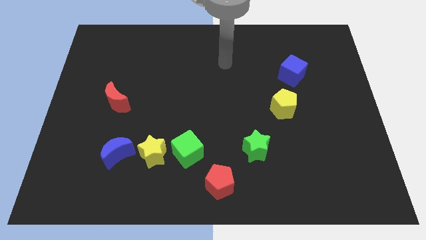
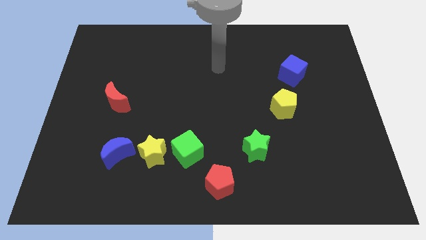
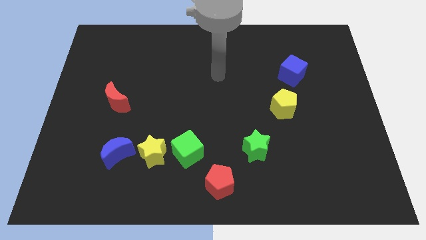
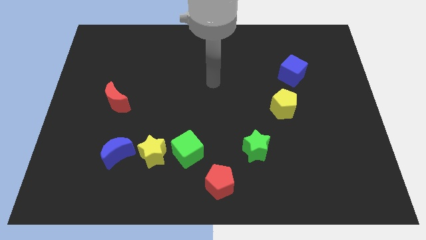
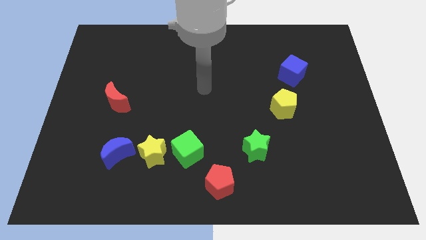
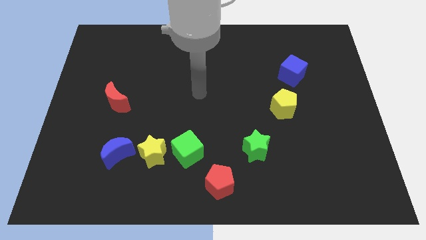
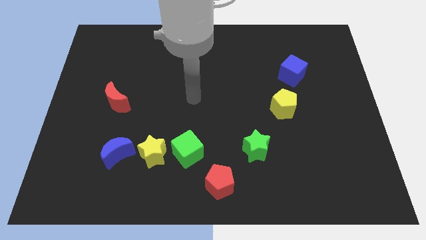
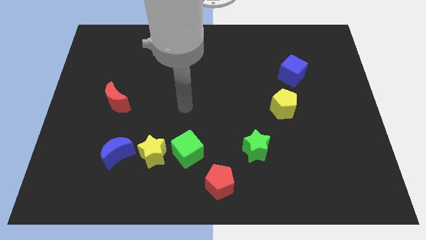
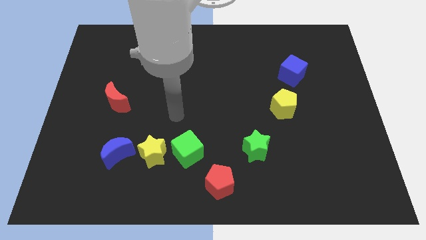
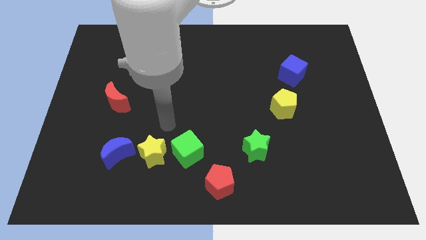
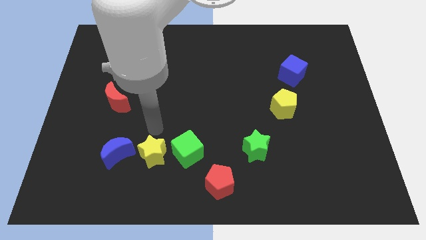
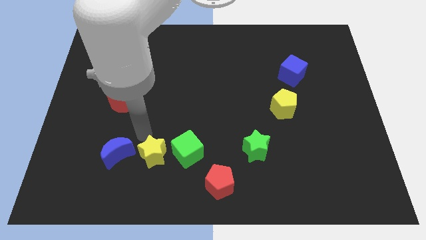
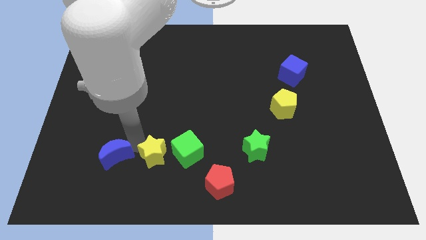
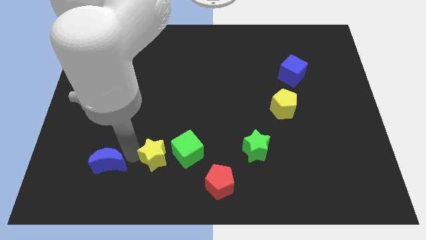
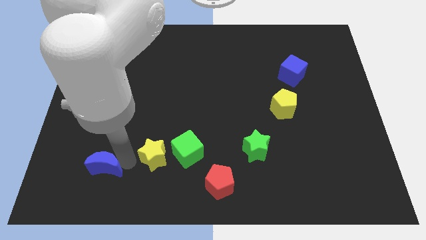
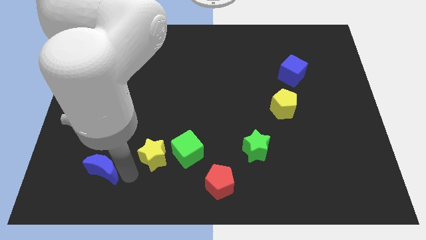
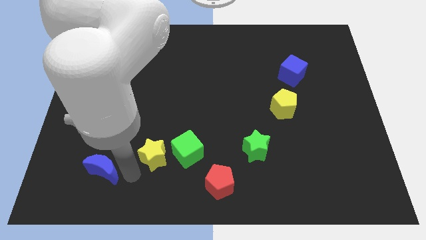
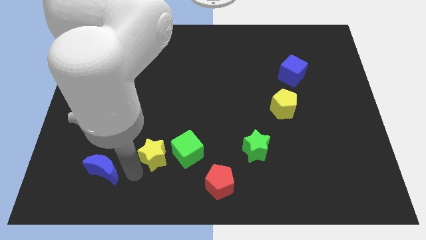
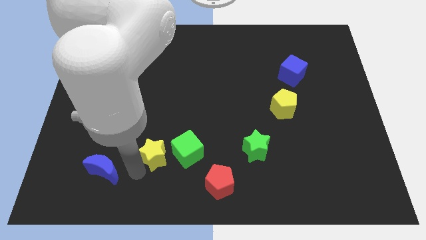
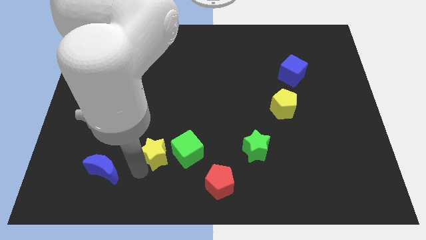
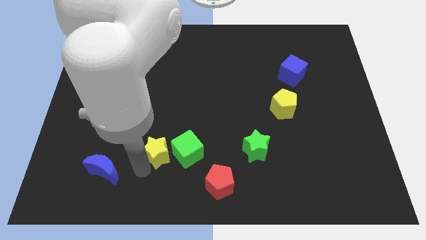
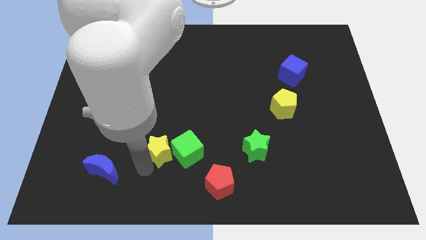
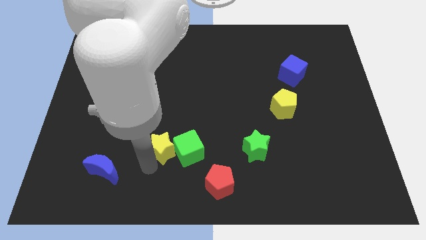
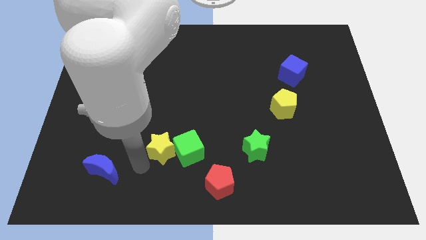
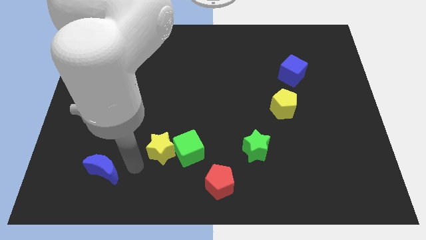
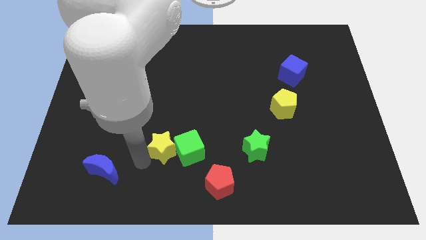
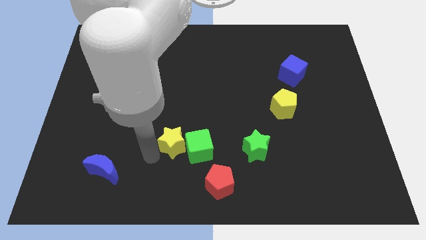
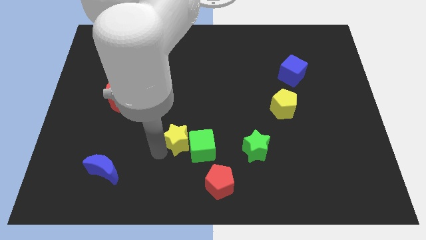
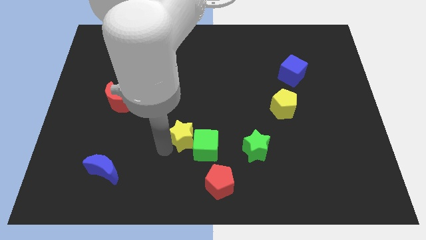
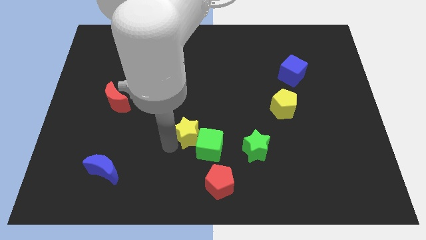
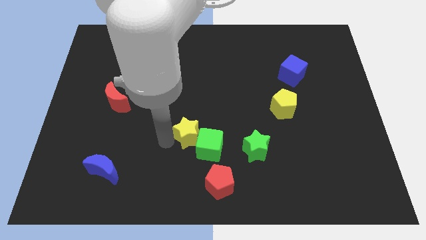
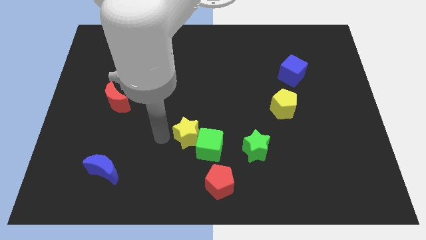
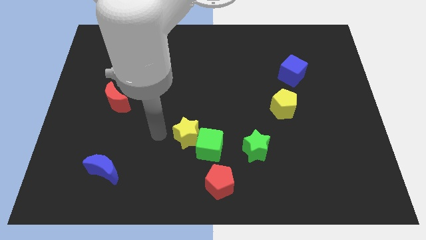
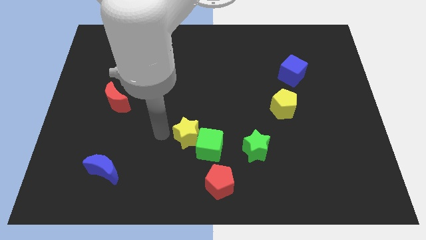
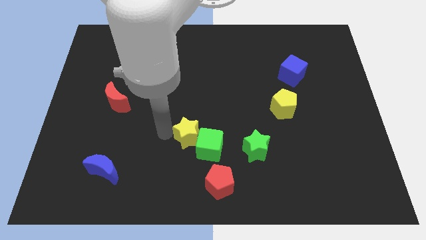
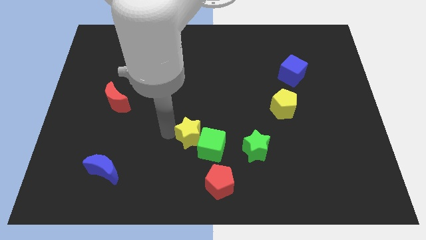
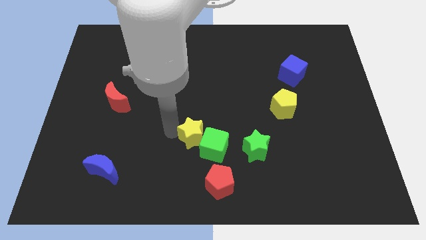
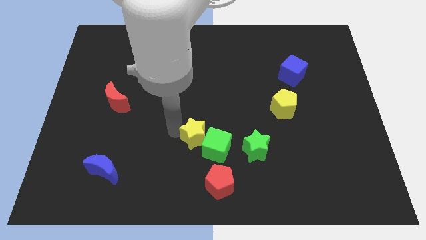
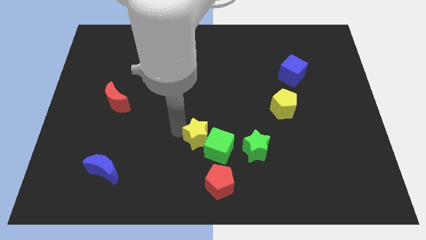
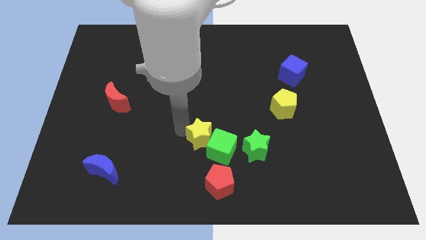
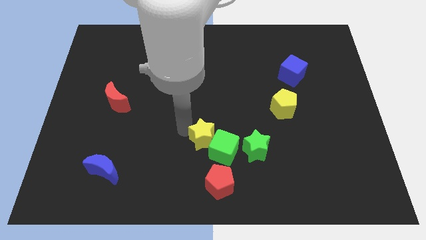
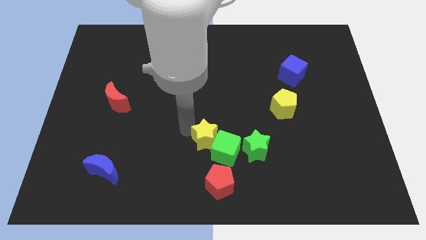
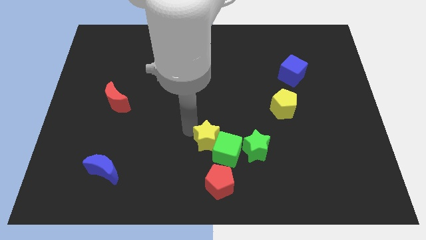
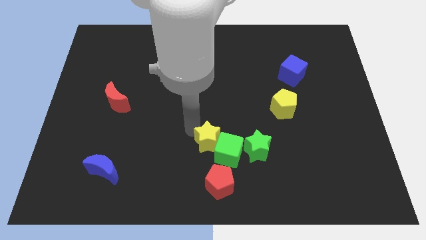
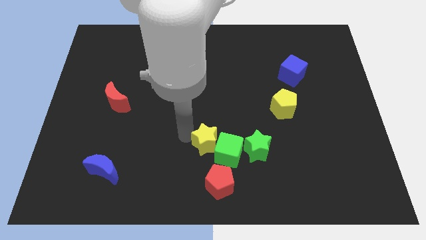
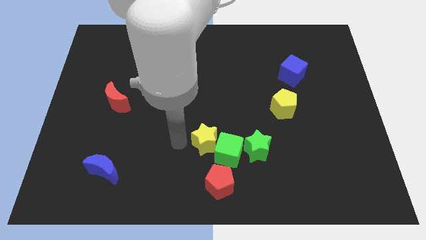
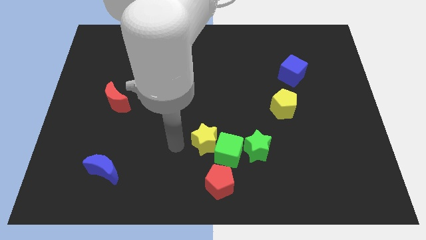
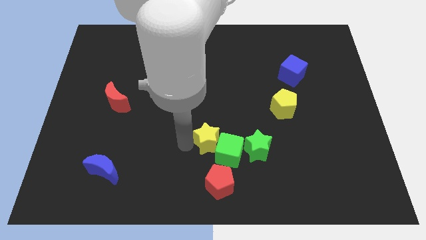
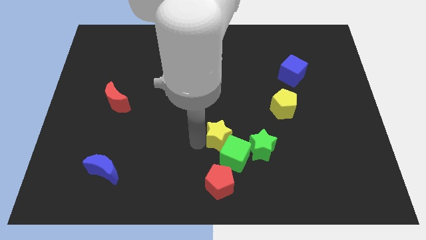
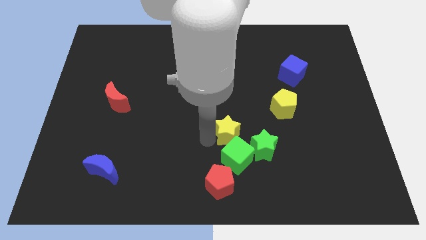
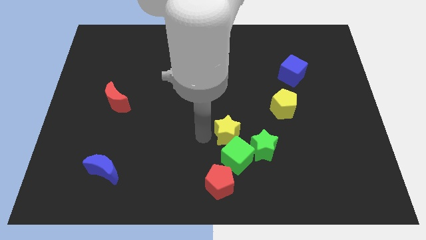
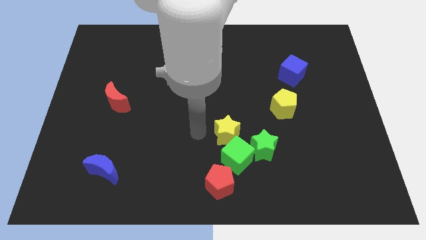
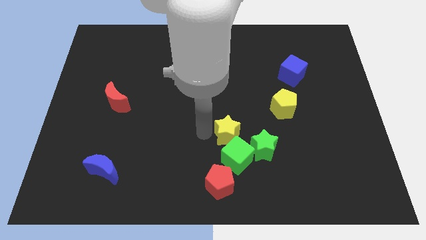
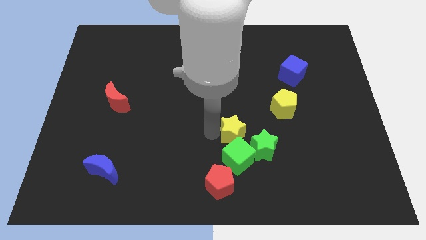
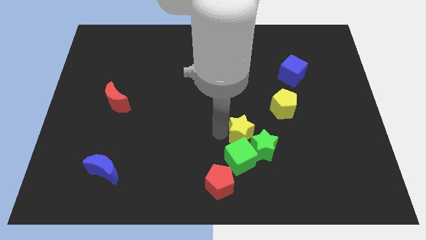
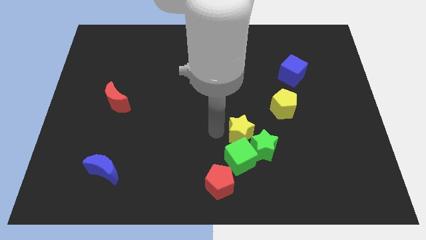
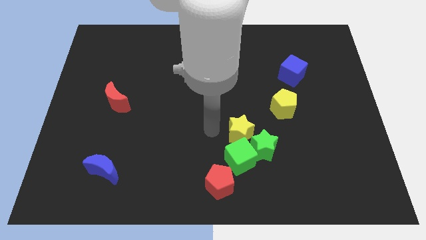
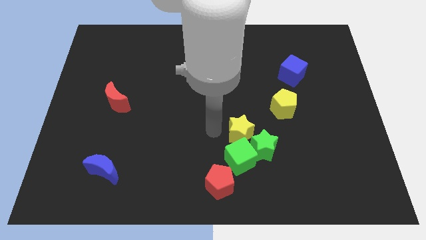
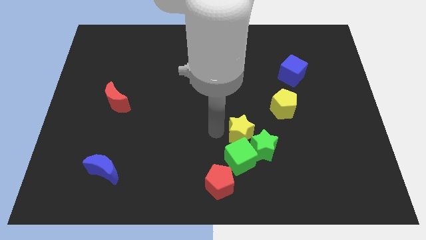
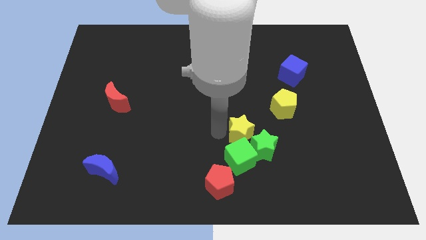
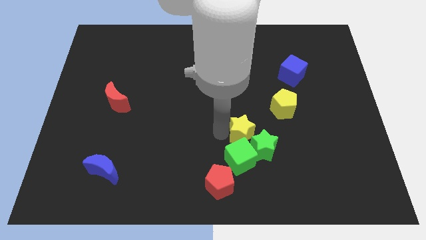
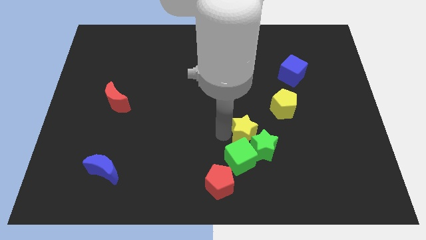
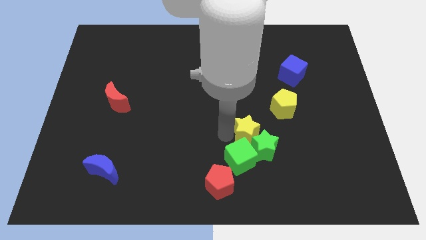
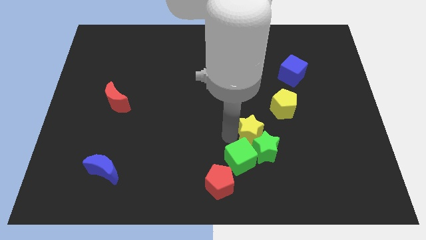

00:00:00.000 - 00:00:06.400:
move the yellow star to the right

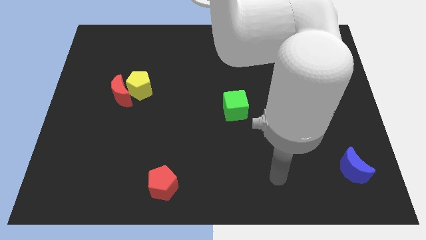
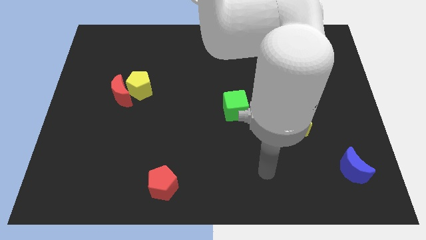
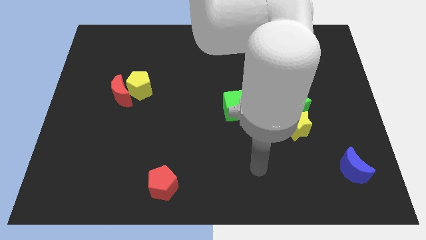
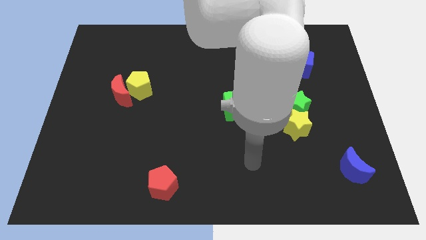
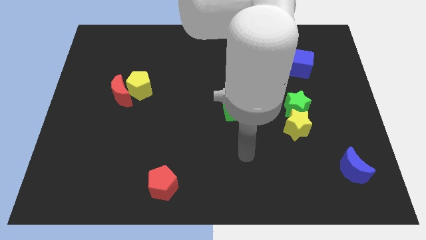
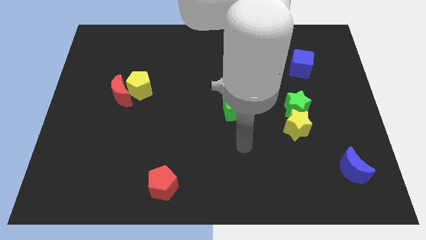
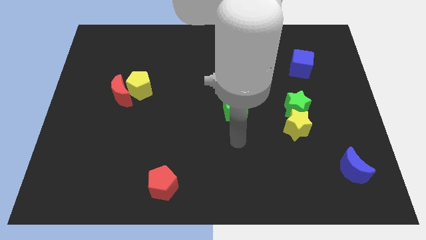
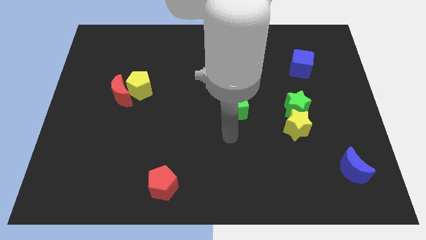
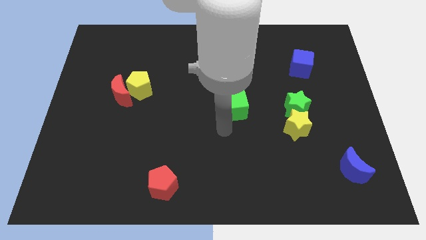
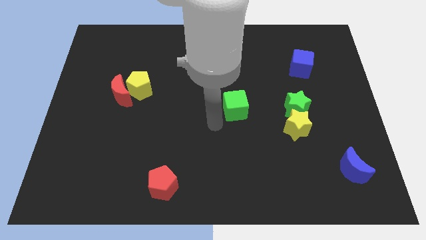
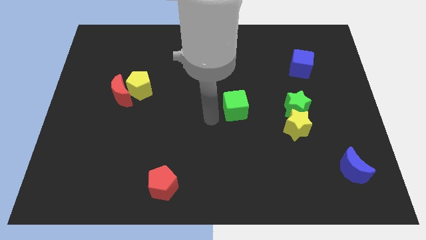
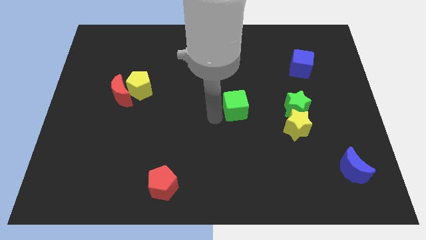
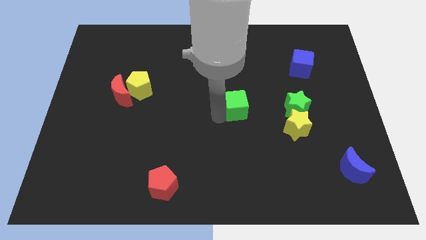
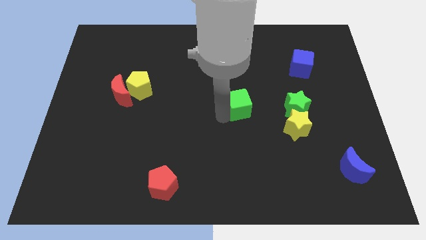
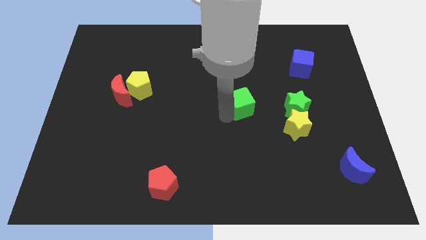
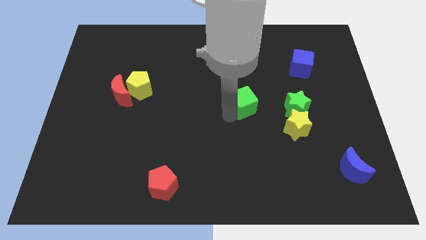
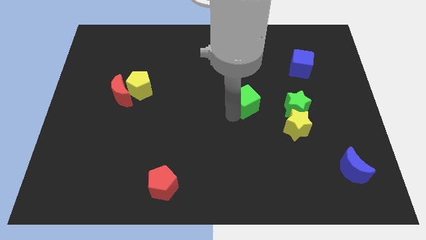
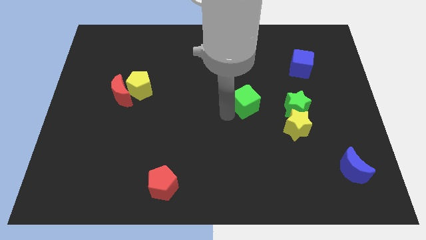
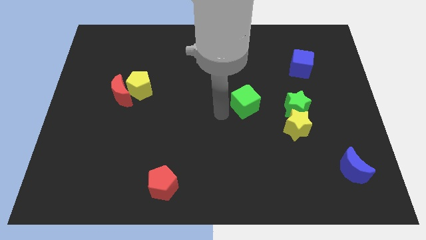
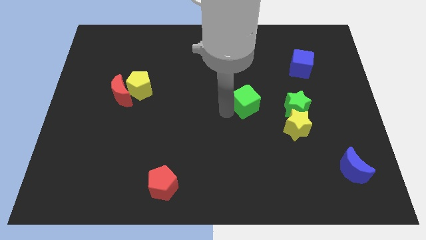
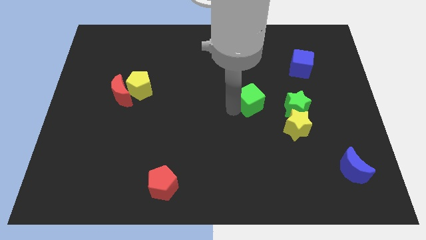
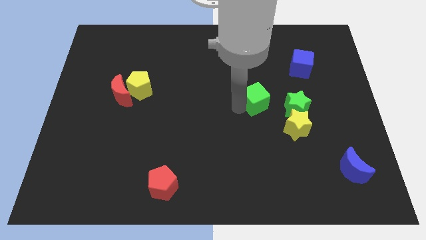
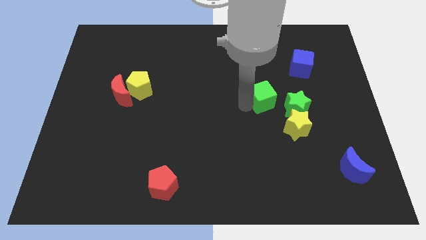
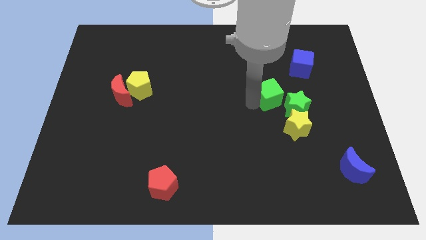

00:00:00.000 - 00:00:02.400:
slightly move the green cube to the right
